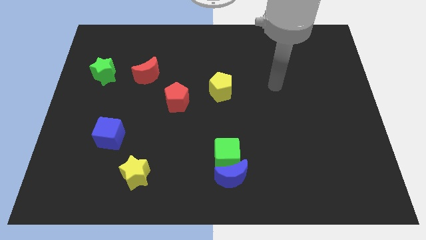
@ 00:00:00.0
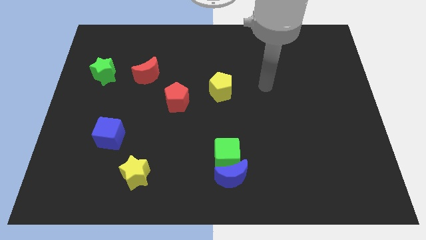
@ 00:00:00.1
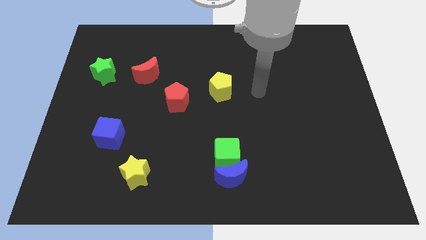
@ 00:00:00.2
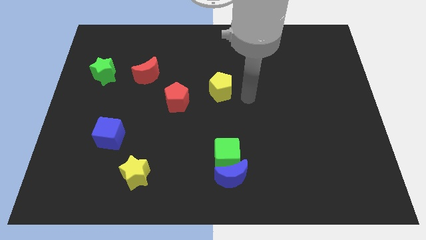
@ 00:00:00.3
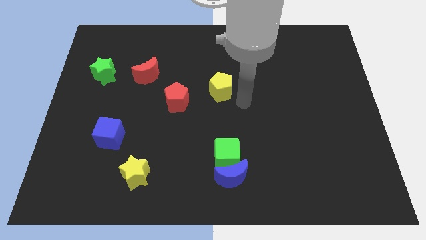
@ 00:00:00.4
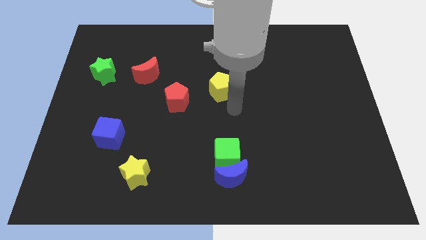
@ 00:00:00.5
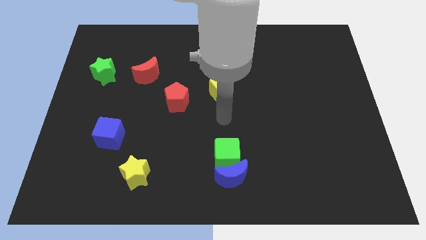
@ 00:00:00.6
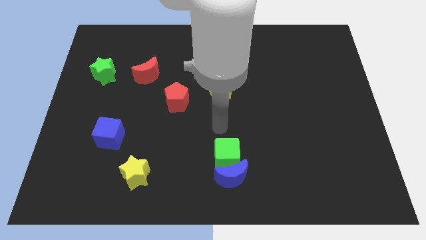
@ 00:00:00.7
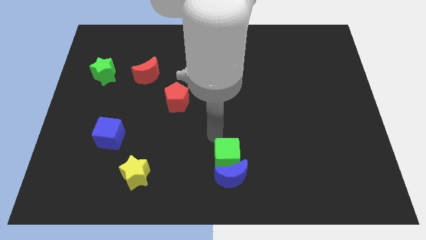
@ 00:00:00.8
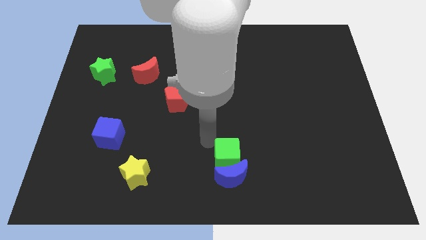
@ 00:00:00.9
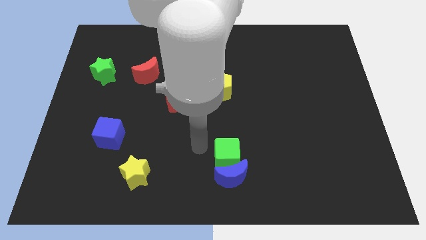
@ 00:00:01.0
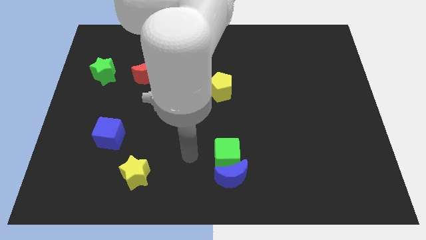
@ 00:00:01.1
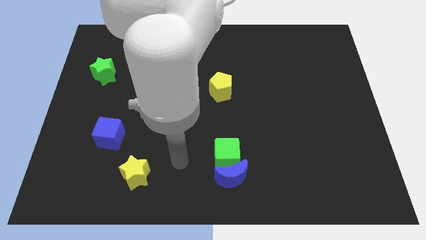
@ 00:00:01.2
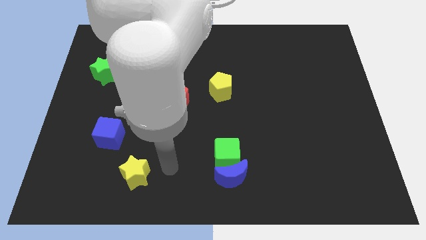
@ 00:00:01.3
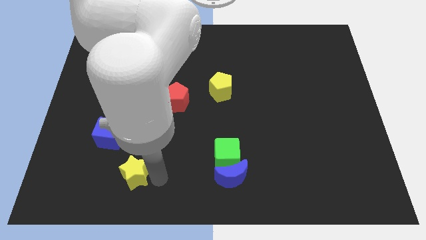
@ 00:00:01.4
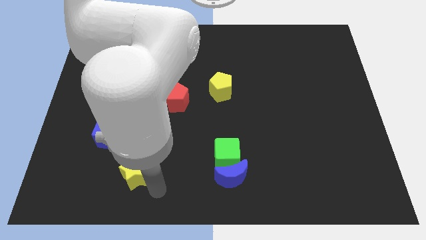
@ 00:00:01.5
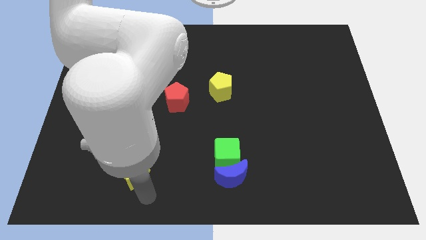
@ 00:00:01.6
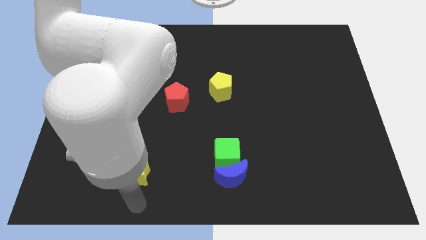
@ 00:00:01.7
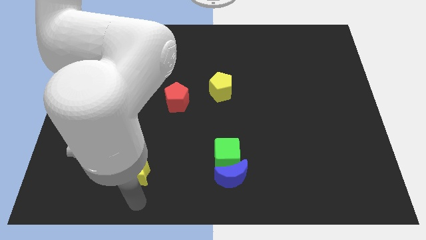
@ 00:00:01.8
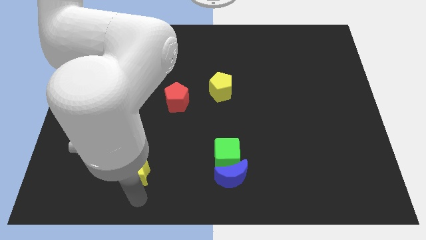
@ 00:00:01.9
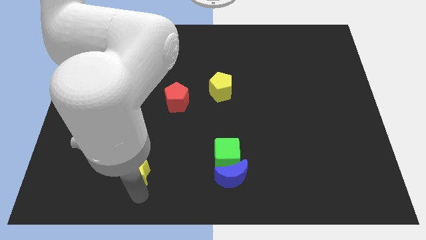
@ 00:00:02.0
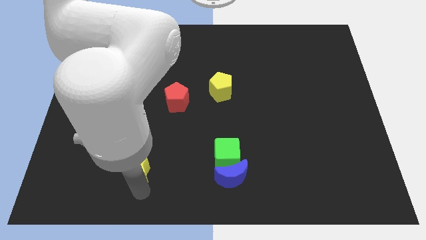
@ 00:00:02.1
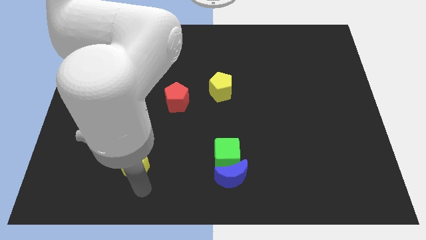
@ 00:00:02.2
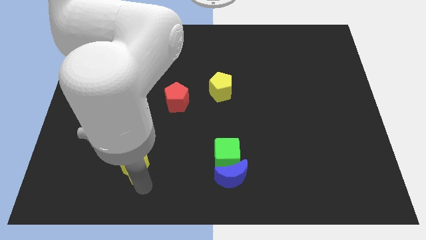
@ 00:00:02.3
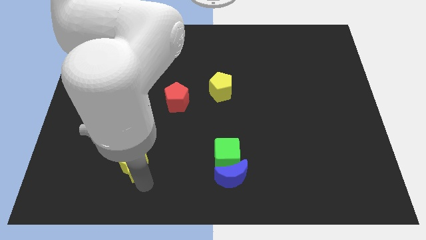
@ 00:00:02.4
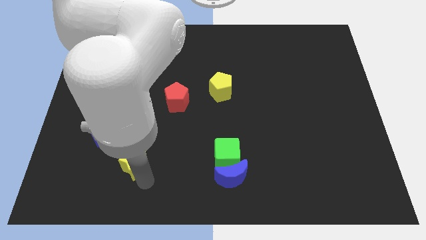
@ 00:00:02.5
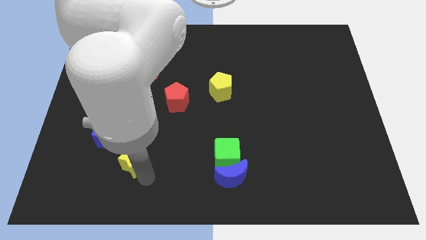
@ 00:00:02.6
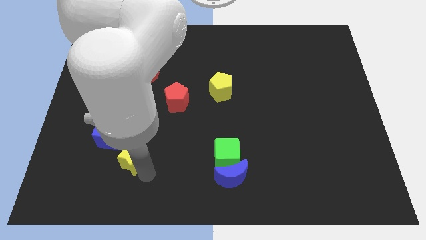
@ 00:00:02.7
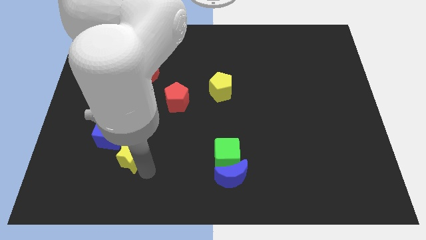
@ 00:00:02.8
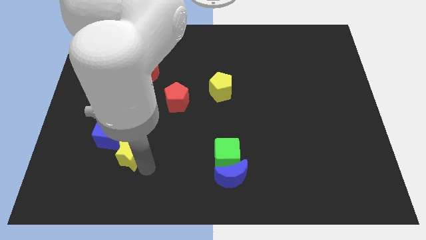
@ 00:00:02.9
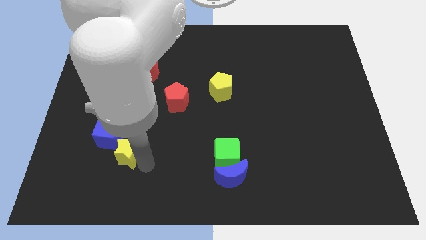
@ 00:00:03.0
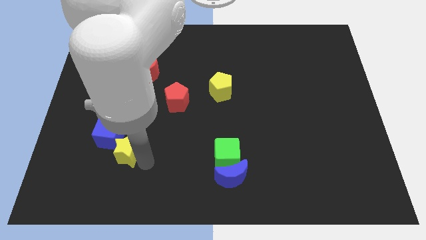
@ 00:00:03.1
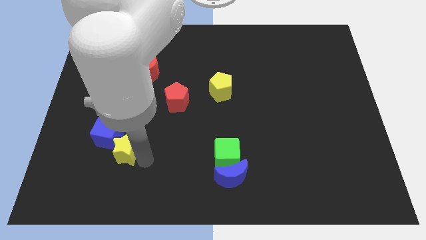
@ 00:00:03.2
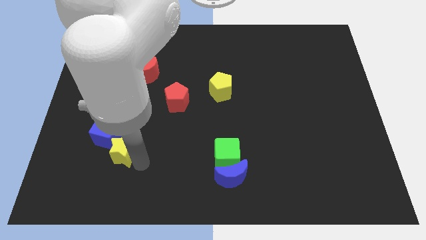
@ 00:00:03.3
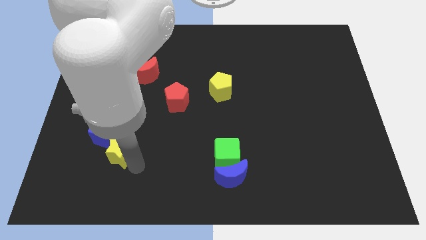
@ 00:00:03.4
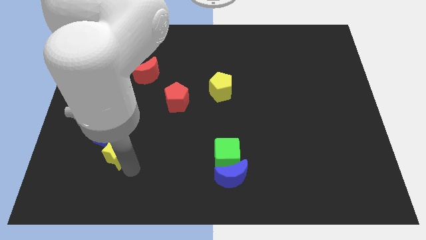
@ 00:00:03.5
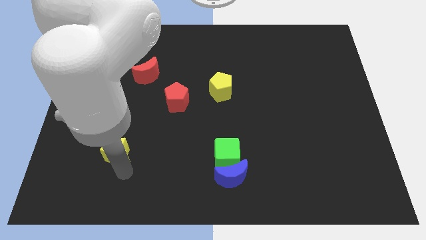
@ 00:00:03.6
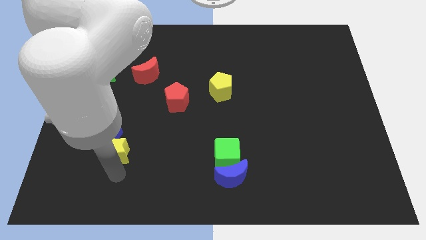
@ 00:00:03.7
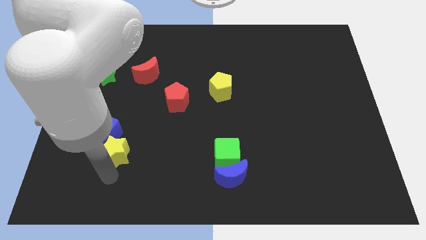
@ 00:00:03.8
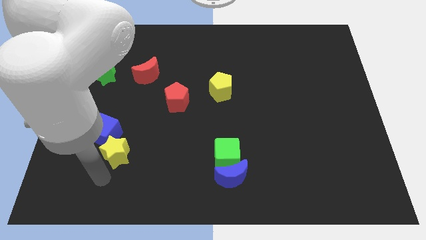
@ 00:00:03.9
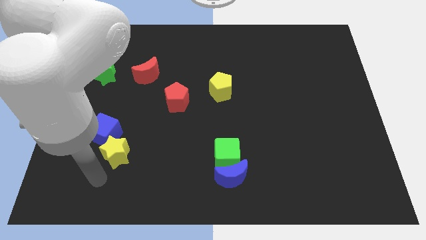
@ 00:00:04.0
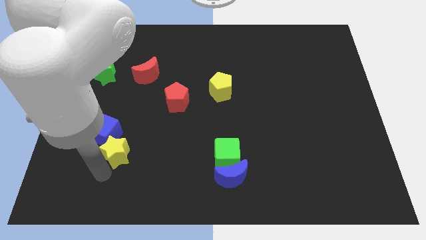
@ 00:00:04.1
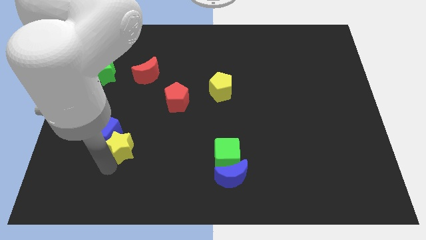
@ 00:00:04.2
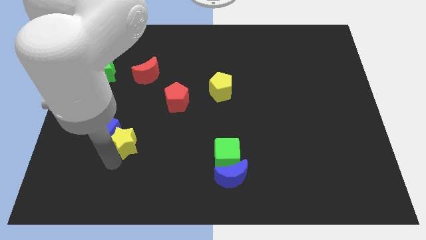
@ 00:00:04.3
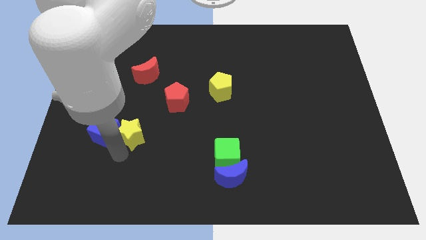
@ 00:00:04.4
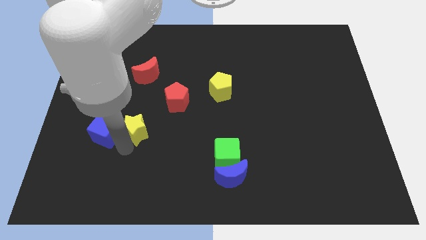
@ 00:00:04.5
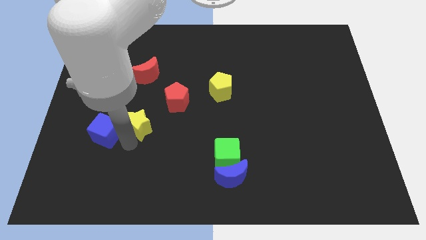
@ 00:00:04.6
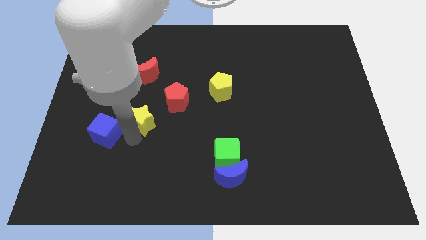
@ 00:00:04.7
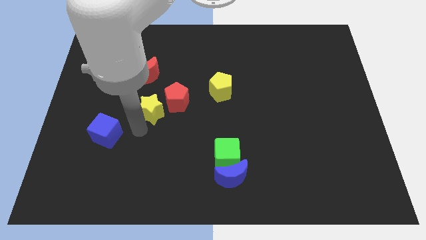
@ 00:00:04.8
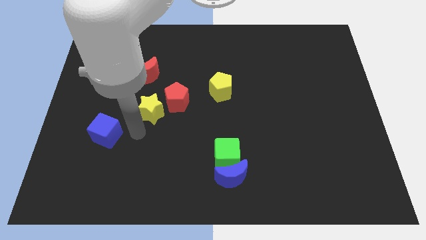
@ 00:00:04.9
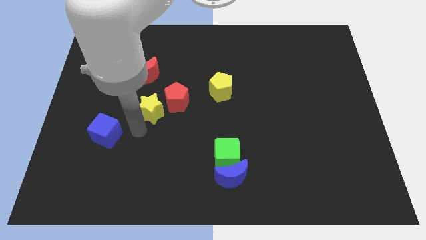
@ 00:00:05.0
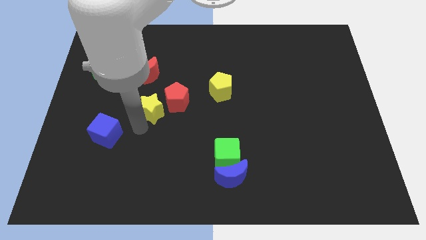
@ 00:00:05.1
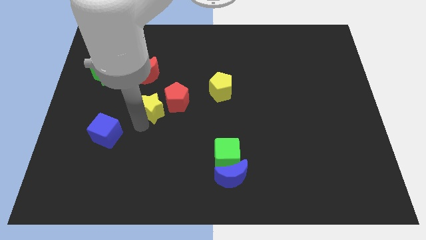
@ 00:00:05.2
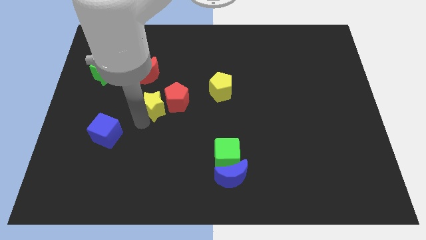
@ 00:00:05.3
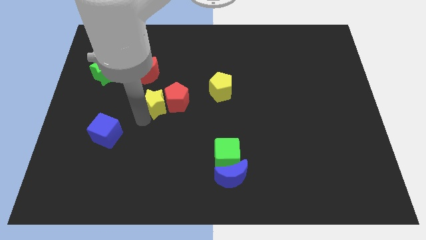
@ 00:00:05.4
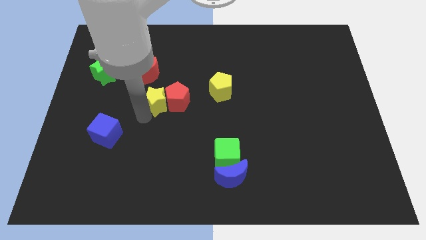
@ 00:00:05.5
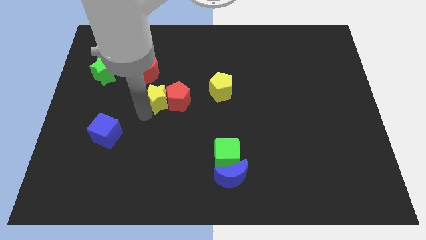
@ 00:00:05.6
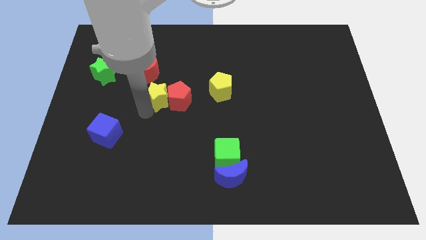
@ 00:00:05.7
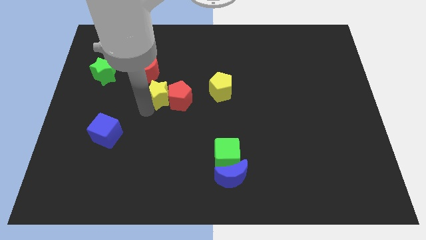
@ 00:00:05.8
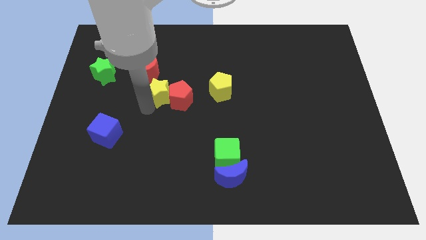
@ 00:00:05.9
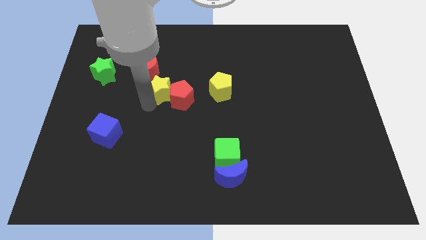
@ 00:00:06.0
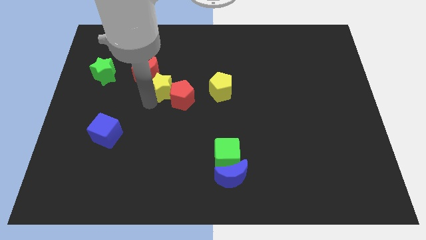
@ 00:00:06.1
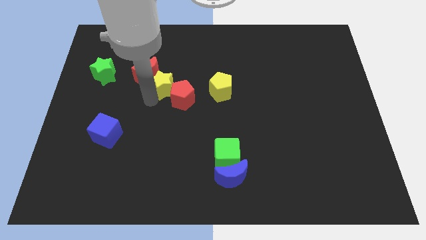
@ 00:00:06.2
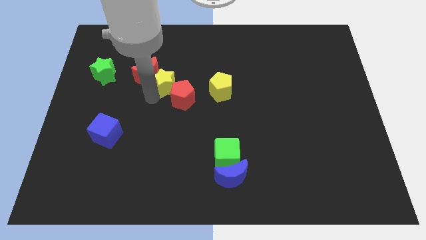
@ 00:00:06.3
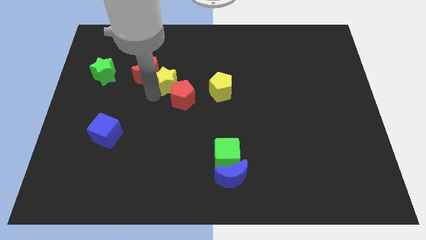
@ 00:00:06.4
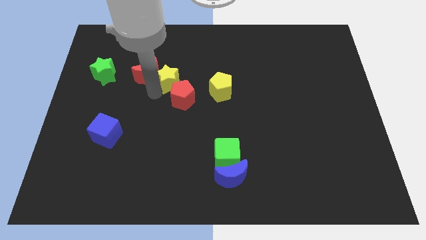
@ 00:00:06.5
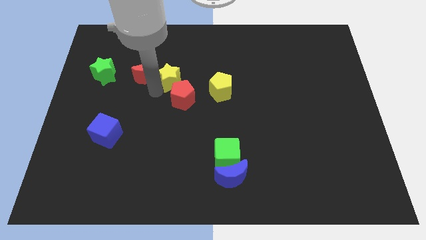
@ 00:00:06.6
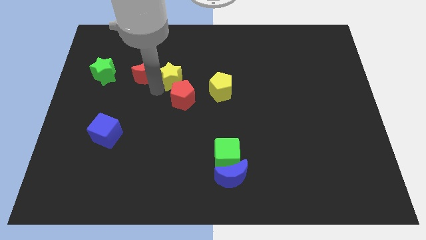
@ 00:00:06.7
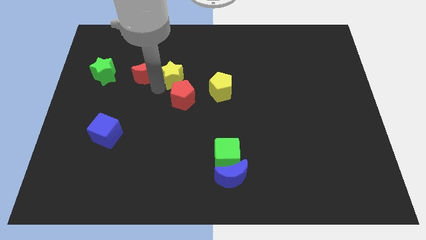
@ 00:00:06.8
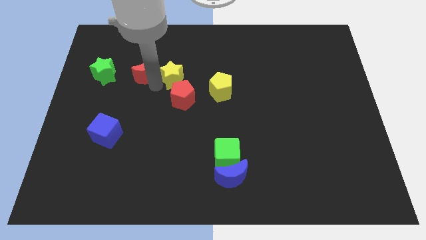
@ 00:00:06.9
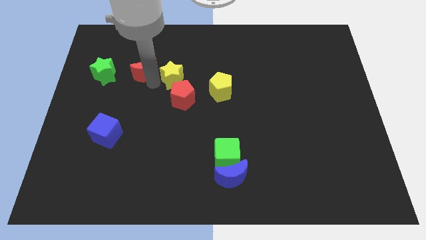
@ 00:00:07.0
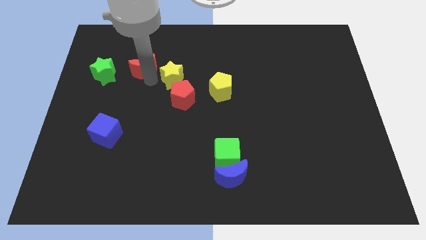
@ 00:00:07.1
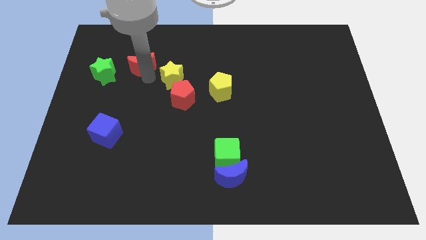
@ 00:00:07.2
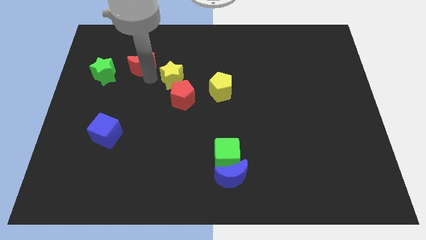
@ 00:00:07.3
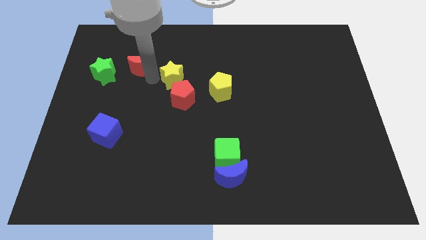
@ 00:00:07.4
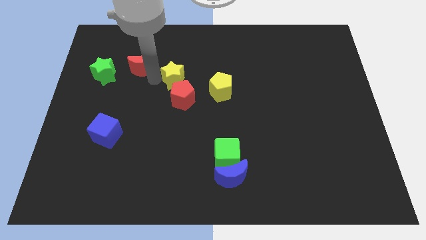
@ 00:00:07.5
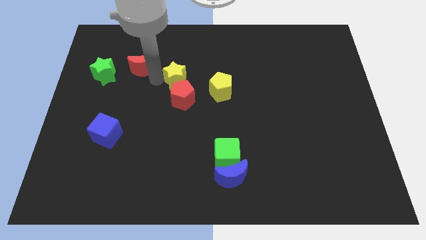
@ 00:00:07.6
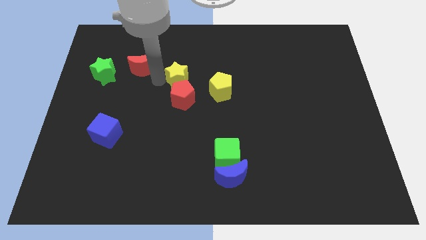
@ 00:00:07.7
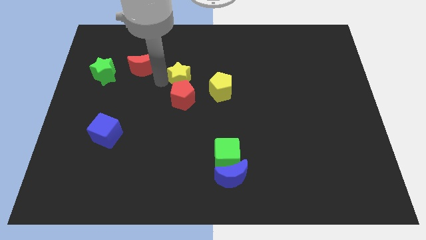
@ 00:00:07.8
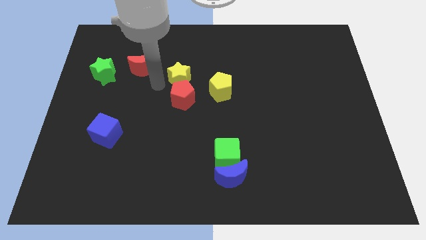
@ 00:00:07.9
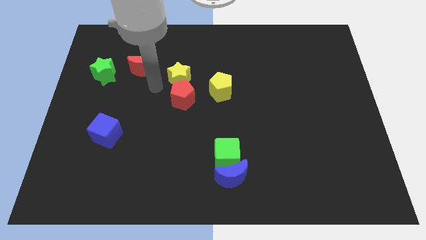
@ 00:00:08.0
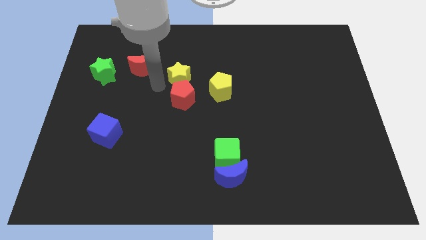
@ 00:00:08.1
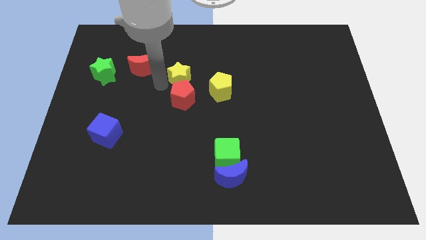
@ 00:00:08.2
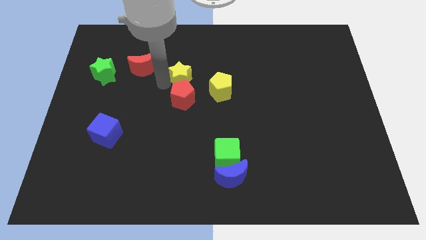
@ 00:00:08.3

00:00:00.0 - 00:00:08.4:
slide the yellow star diagonally up and to the left of the yellow pentagon
